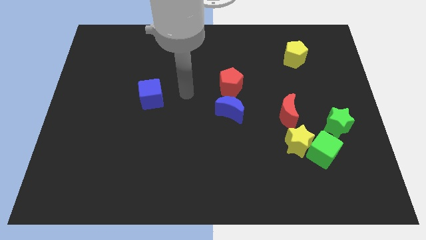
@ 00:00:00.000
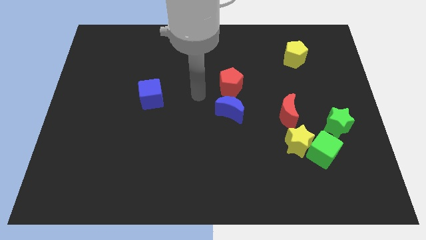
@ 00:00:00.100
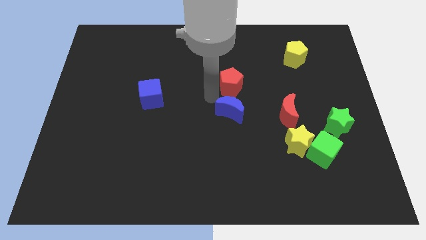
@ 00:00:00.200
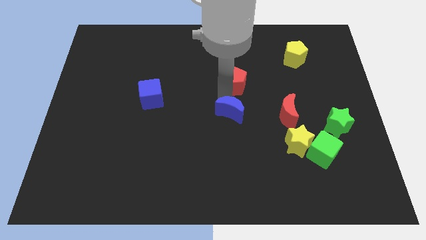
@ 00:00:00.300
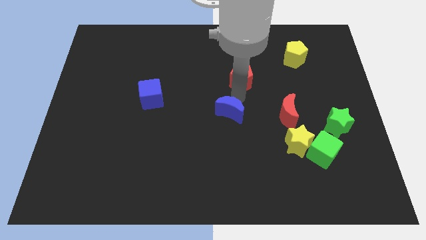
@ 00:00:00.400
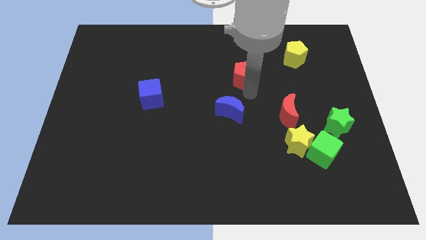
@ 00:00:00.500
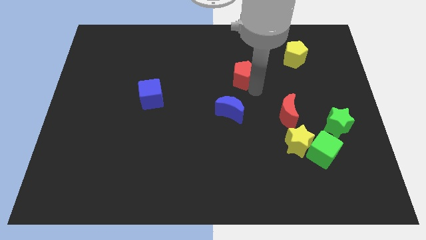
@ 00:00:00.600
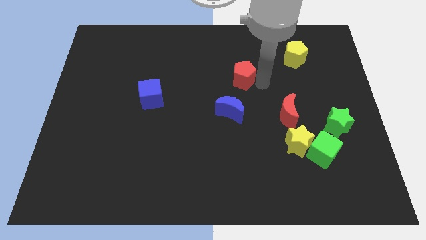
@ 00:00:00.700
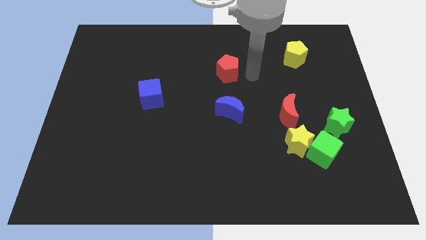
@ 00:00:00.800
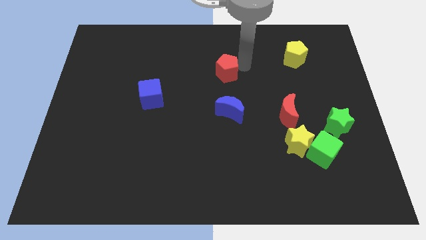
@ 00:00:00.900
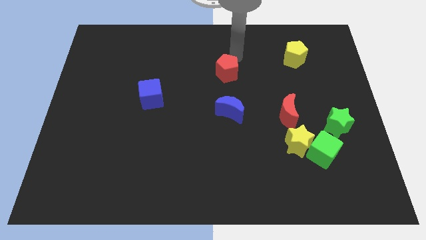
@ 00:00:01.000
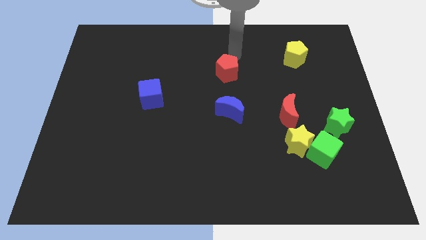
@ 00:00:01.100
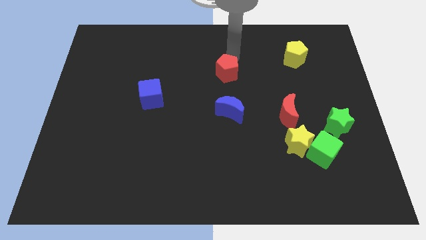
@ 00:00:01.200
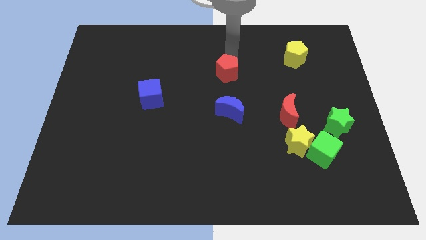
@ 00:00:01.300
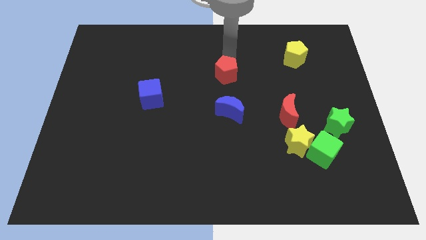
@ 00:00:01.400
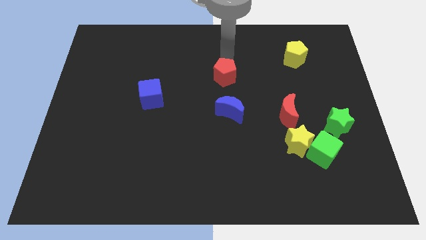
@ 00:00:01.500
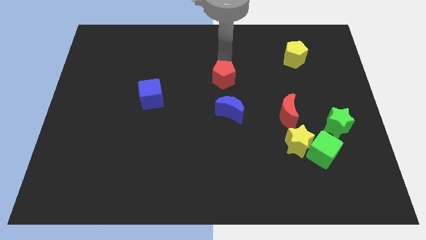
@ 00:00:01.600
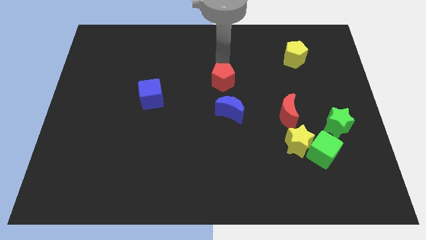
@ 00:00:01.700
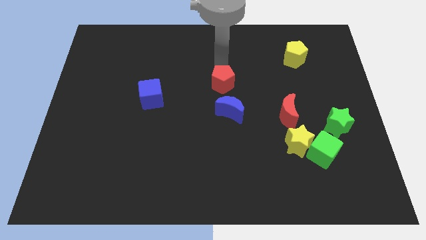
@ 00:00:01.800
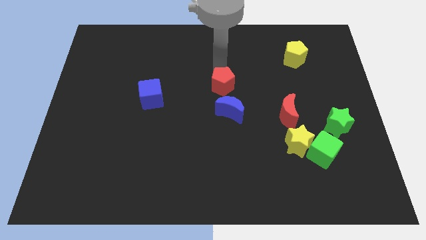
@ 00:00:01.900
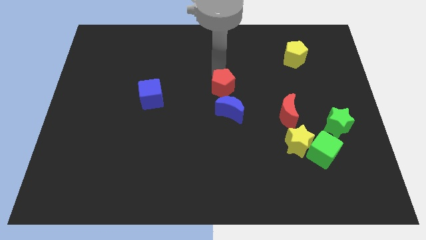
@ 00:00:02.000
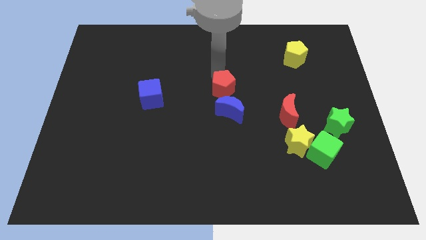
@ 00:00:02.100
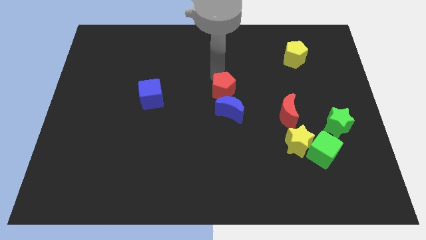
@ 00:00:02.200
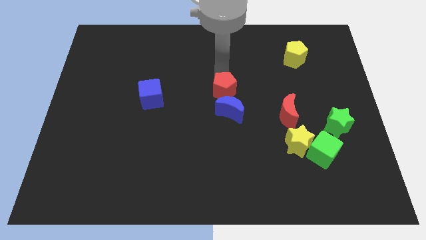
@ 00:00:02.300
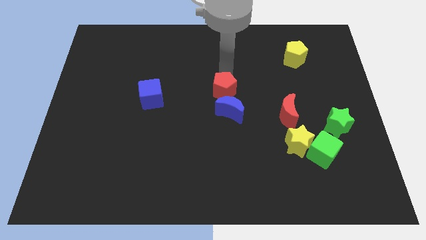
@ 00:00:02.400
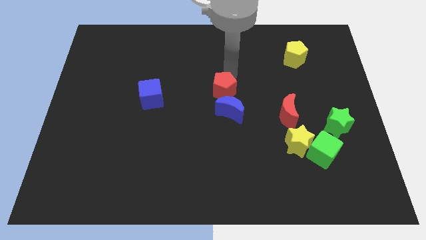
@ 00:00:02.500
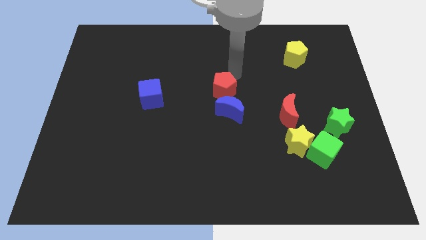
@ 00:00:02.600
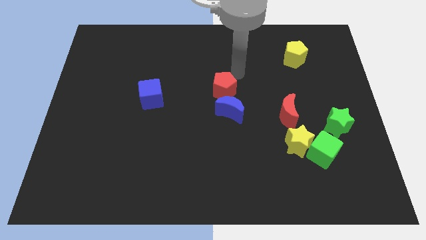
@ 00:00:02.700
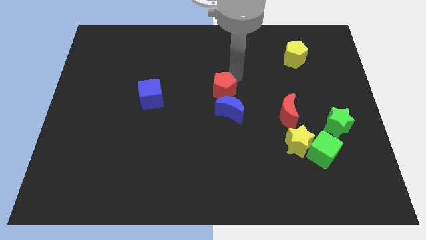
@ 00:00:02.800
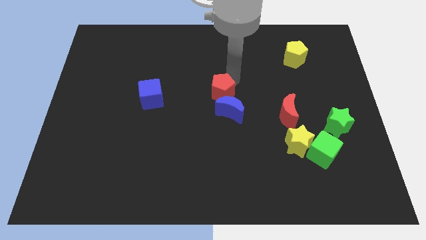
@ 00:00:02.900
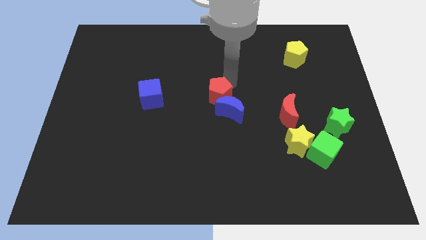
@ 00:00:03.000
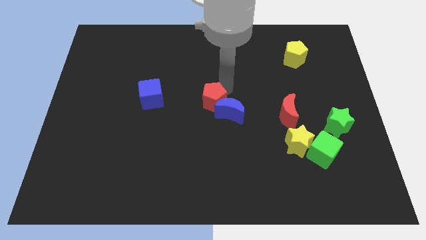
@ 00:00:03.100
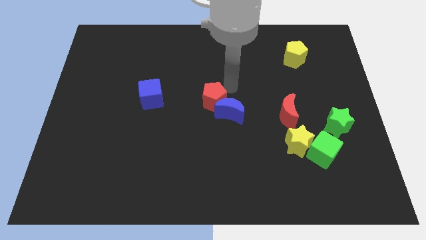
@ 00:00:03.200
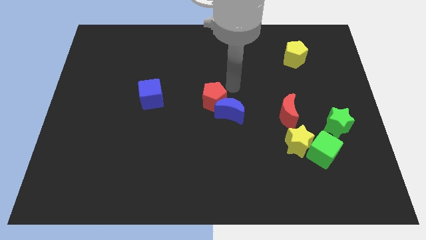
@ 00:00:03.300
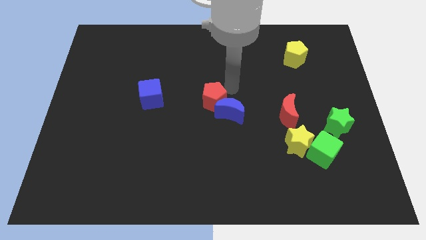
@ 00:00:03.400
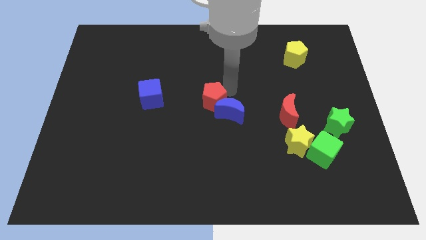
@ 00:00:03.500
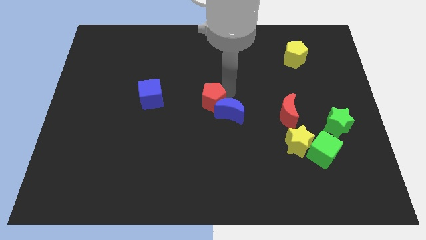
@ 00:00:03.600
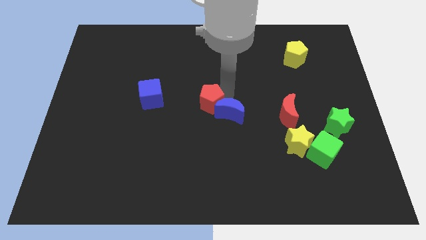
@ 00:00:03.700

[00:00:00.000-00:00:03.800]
slide the red pentagon somewhat downwards and left diagonally

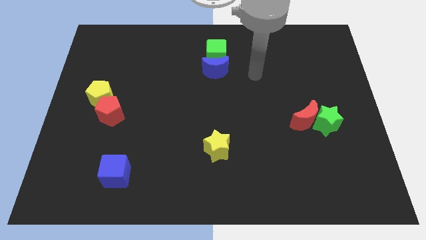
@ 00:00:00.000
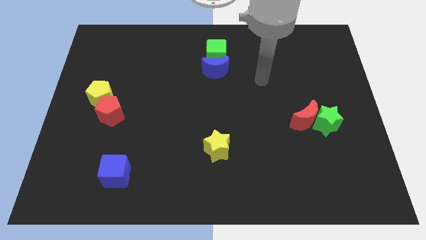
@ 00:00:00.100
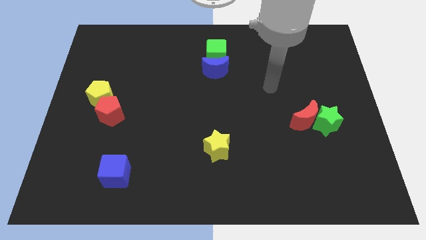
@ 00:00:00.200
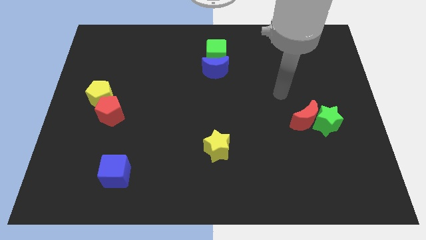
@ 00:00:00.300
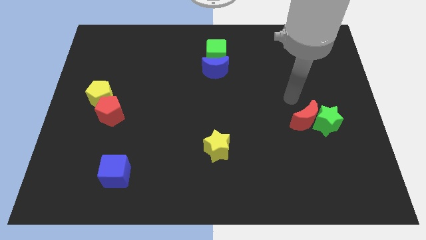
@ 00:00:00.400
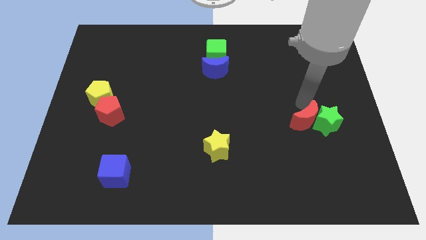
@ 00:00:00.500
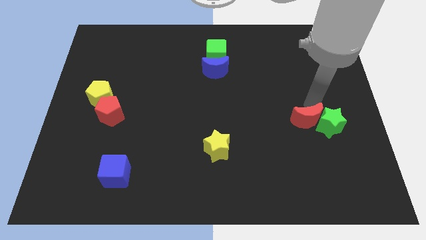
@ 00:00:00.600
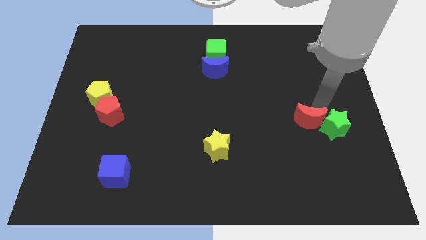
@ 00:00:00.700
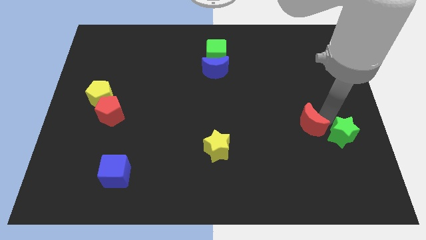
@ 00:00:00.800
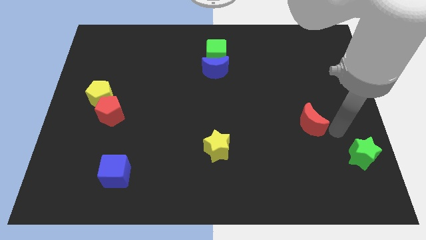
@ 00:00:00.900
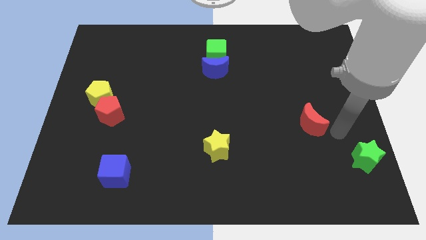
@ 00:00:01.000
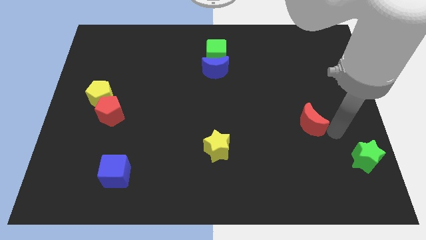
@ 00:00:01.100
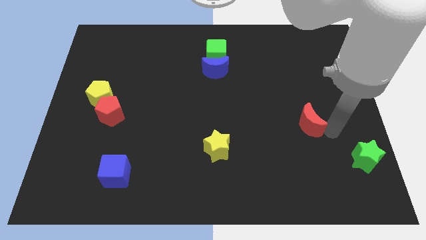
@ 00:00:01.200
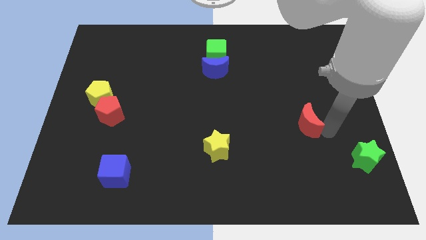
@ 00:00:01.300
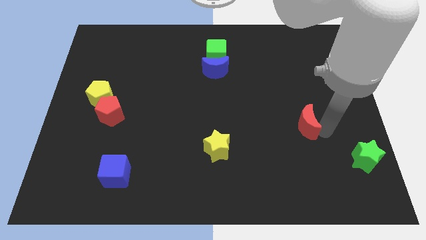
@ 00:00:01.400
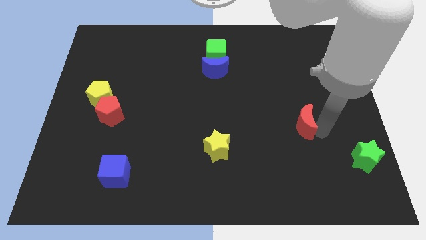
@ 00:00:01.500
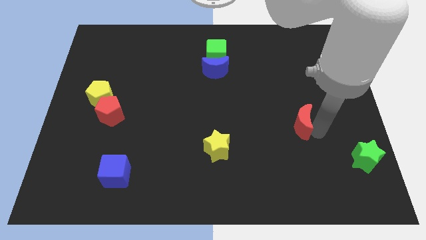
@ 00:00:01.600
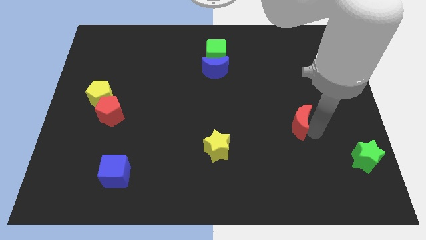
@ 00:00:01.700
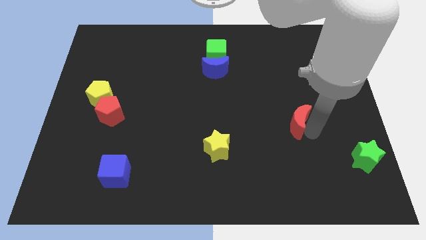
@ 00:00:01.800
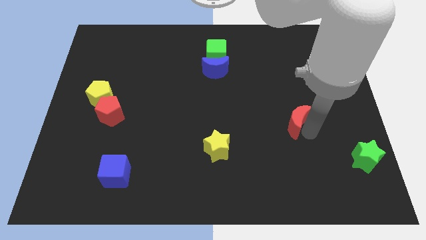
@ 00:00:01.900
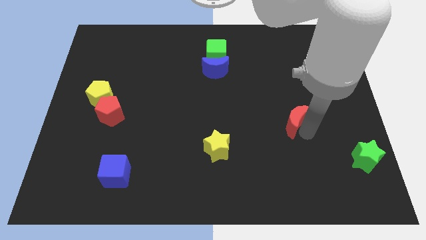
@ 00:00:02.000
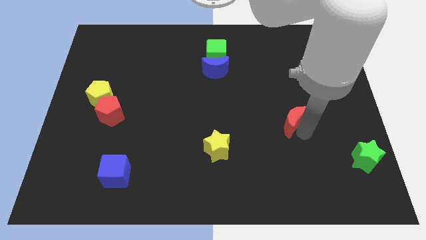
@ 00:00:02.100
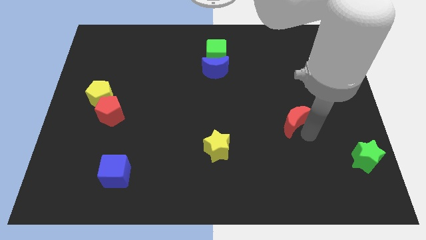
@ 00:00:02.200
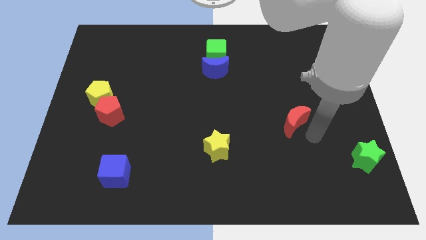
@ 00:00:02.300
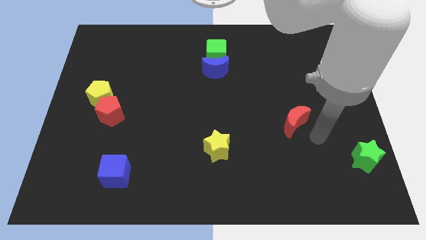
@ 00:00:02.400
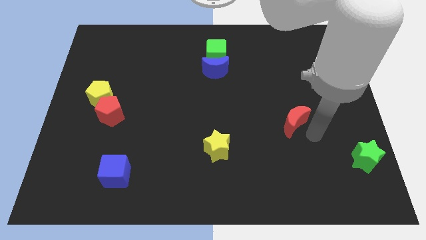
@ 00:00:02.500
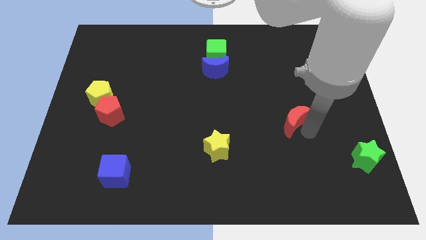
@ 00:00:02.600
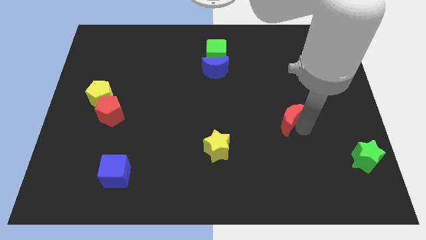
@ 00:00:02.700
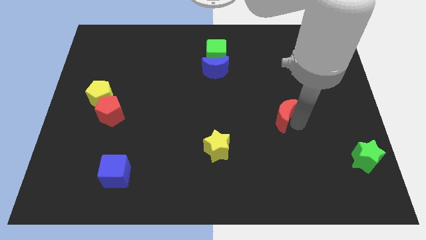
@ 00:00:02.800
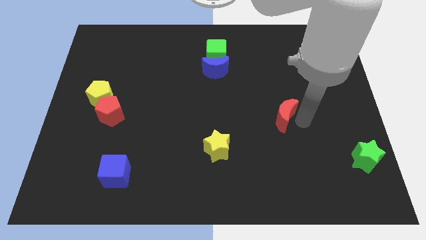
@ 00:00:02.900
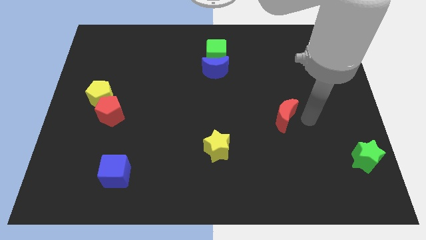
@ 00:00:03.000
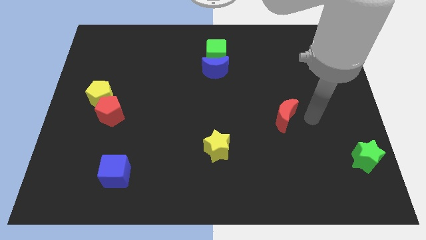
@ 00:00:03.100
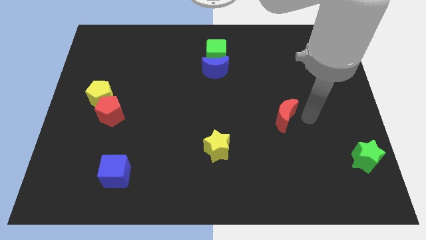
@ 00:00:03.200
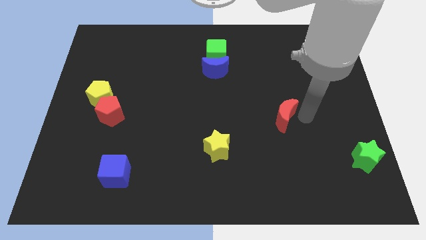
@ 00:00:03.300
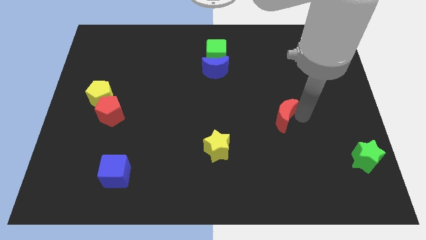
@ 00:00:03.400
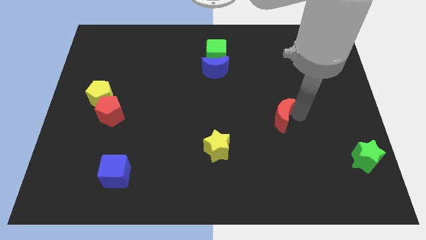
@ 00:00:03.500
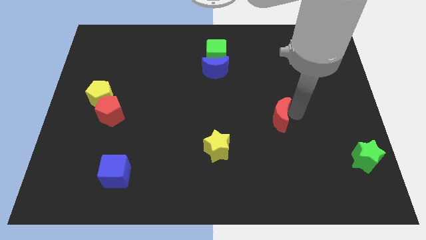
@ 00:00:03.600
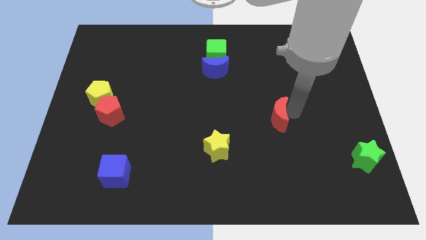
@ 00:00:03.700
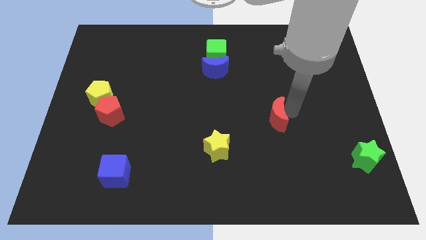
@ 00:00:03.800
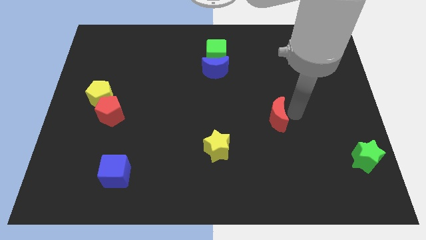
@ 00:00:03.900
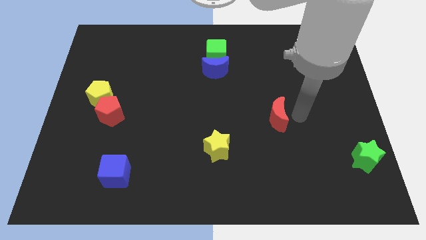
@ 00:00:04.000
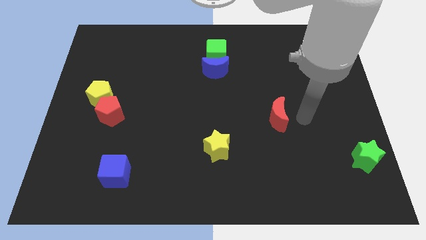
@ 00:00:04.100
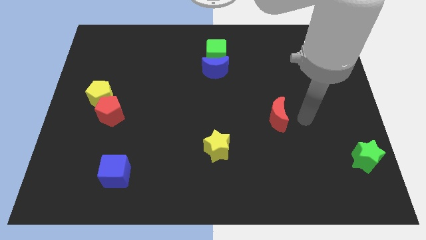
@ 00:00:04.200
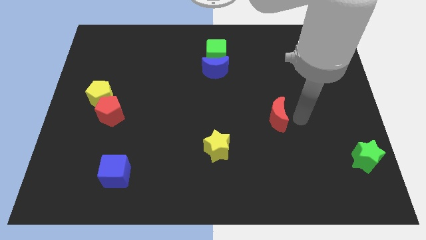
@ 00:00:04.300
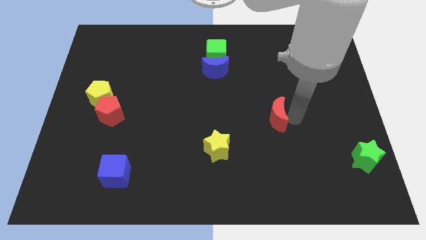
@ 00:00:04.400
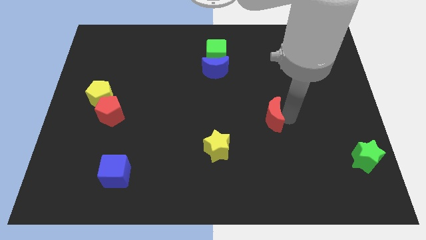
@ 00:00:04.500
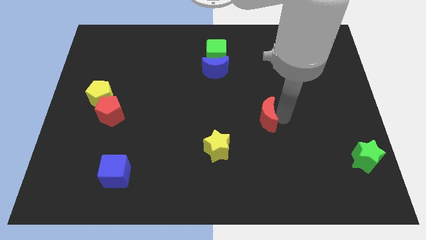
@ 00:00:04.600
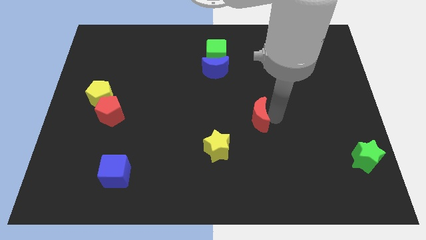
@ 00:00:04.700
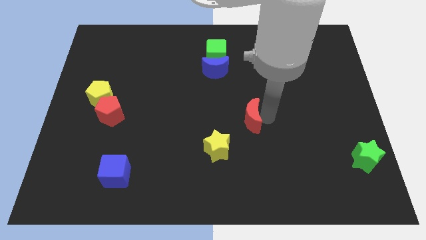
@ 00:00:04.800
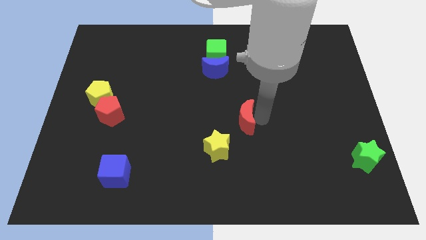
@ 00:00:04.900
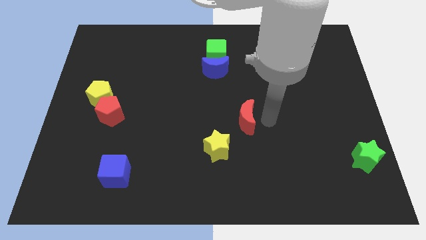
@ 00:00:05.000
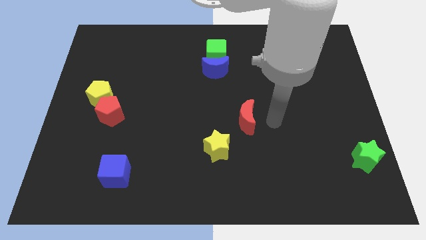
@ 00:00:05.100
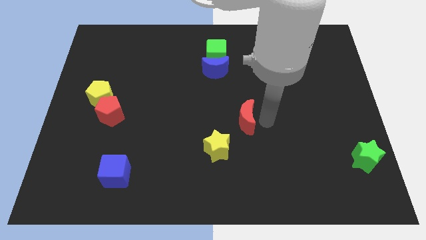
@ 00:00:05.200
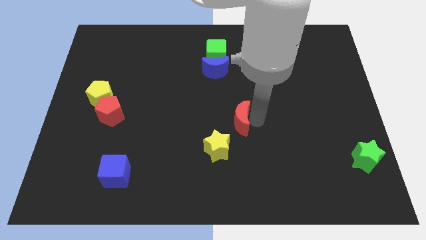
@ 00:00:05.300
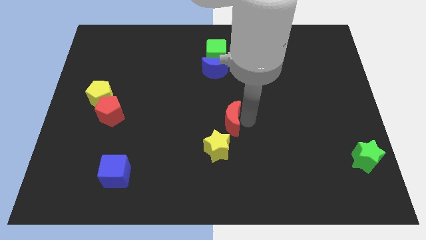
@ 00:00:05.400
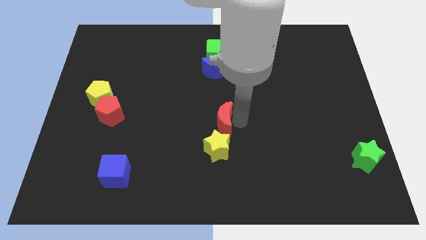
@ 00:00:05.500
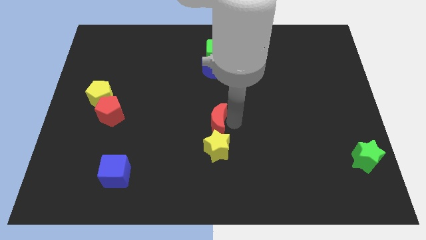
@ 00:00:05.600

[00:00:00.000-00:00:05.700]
move the red moon to the left
